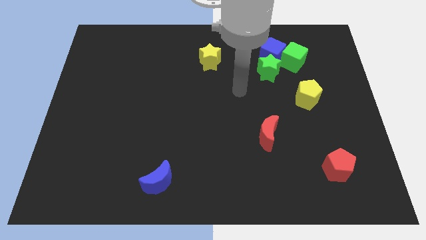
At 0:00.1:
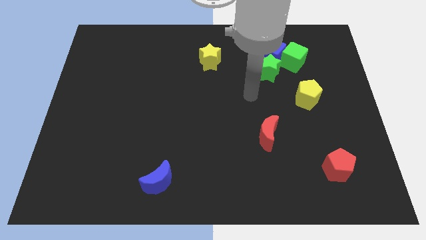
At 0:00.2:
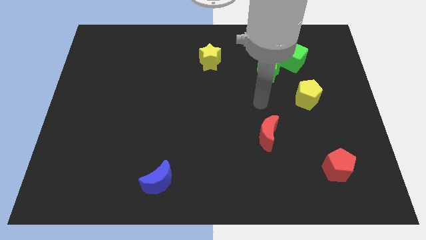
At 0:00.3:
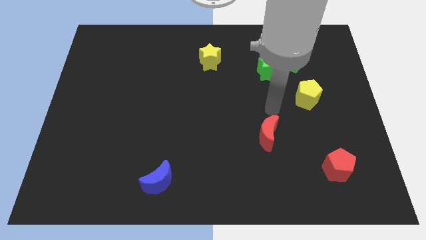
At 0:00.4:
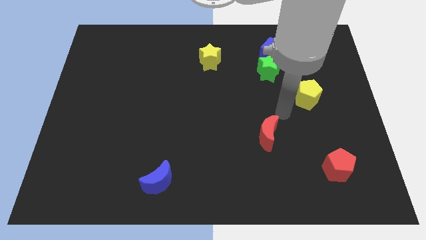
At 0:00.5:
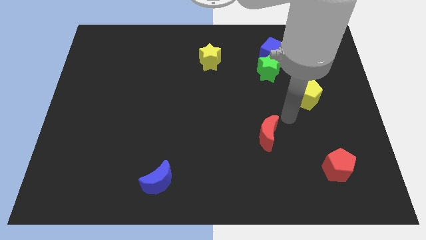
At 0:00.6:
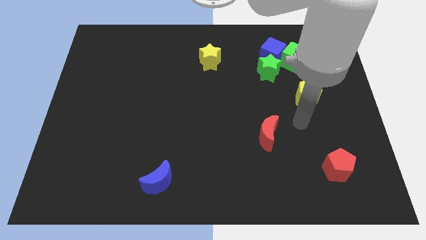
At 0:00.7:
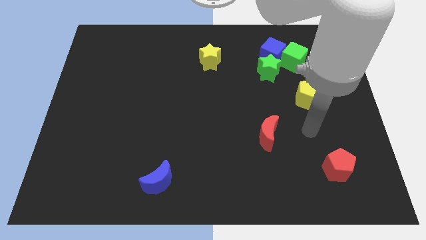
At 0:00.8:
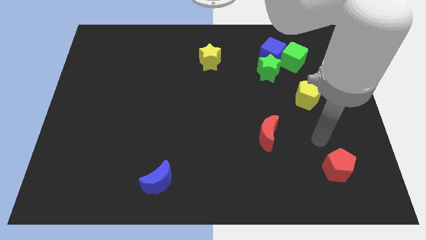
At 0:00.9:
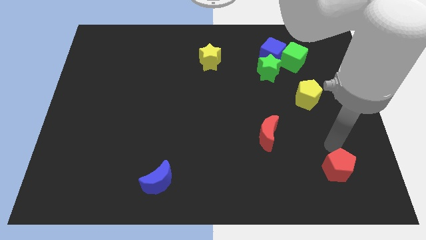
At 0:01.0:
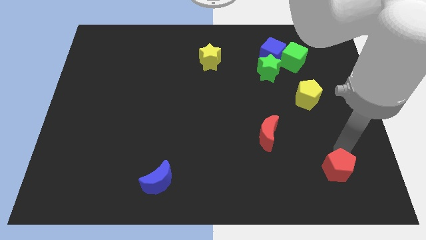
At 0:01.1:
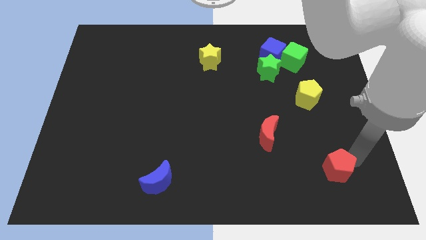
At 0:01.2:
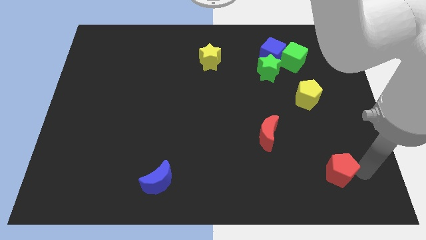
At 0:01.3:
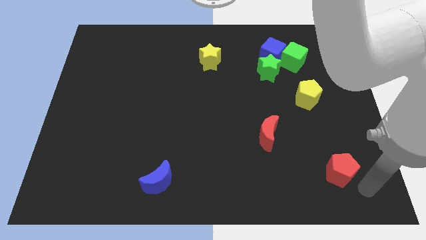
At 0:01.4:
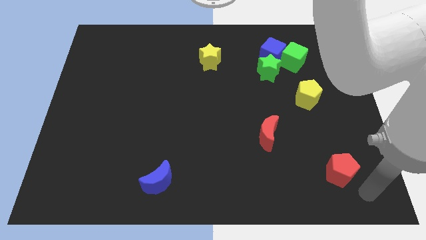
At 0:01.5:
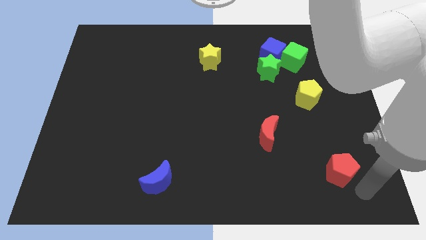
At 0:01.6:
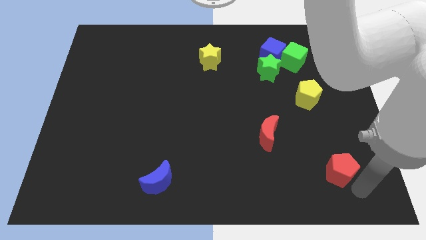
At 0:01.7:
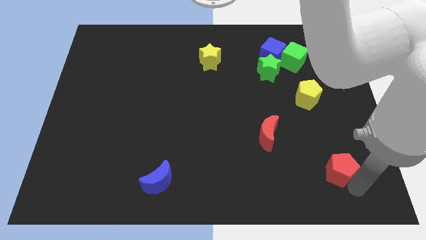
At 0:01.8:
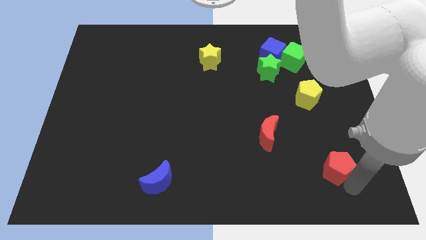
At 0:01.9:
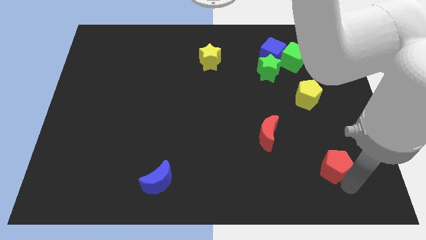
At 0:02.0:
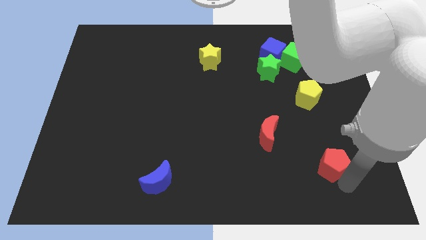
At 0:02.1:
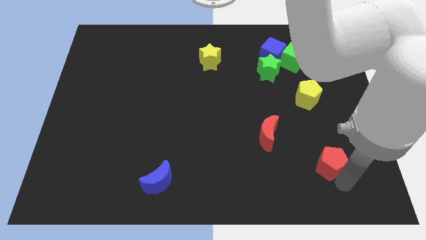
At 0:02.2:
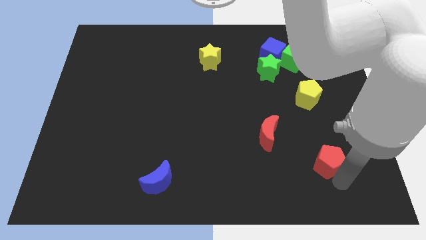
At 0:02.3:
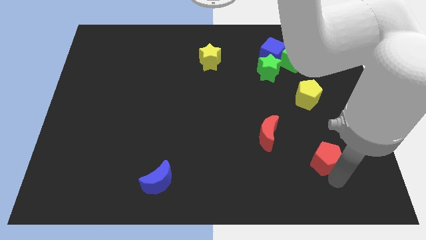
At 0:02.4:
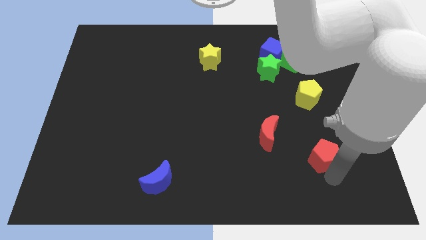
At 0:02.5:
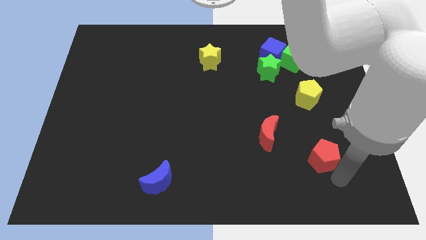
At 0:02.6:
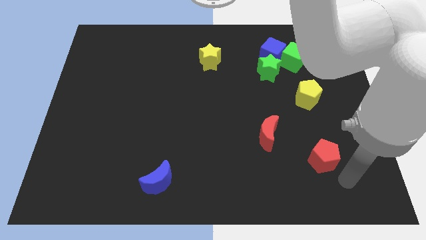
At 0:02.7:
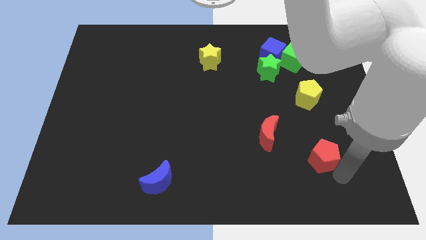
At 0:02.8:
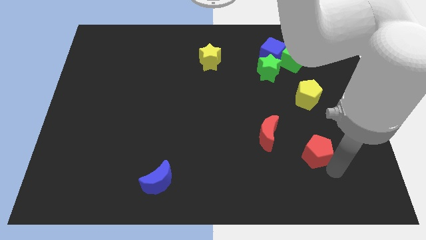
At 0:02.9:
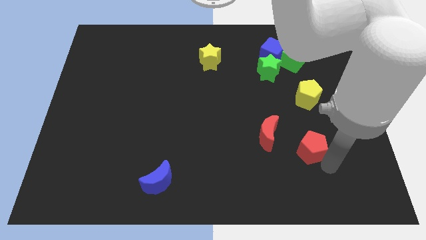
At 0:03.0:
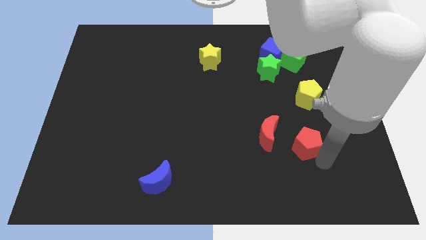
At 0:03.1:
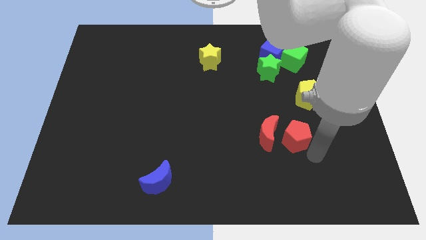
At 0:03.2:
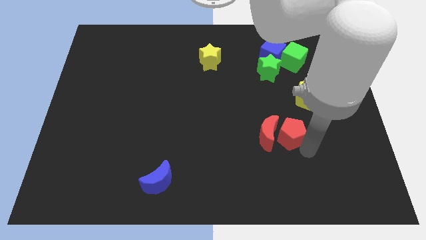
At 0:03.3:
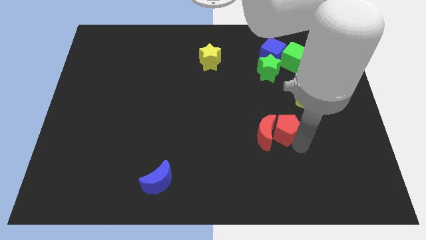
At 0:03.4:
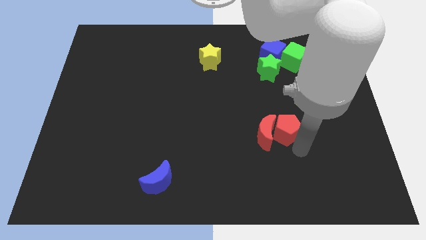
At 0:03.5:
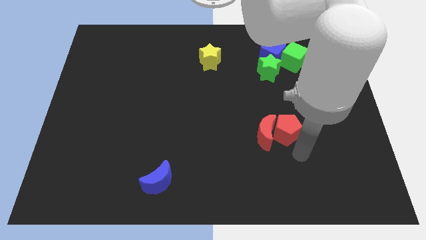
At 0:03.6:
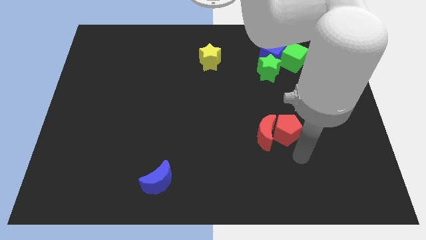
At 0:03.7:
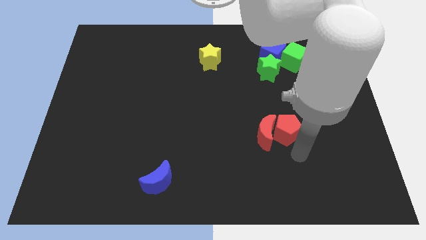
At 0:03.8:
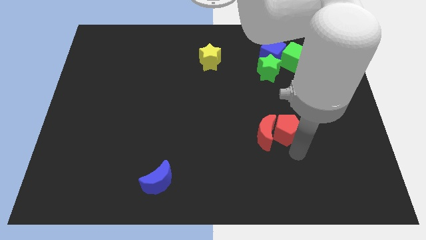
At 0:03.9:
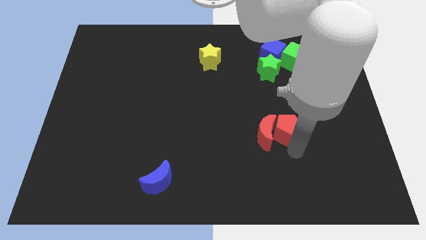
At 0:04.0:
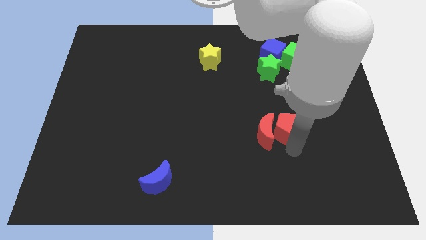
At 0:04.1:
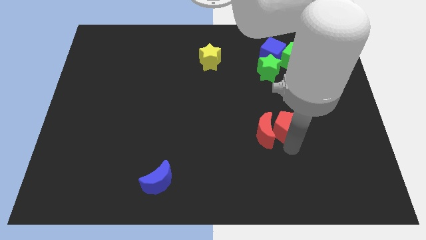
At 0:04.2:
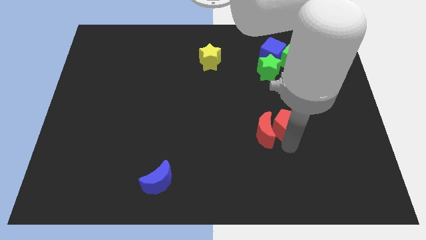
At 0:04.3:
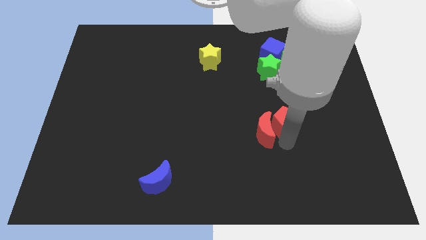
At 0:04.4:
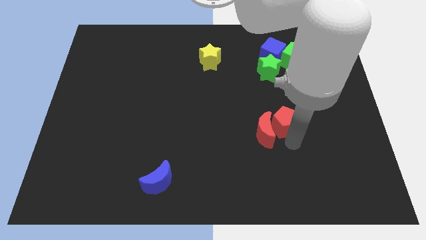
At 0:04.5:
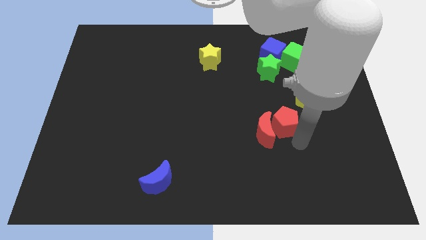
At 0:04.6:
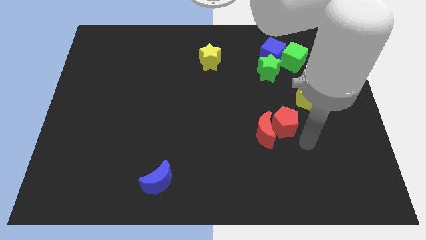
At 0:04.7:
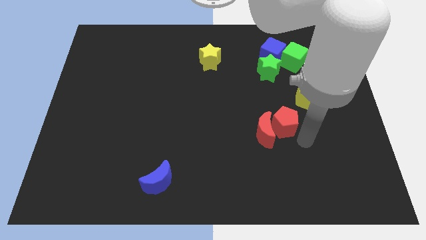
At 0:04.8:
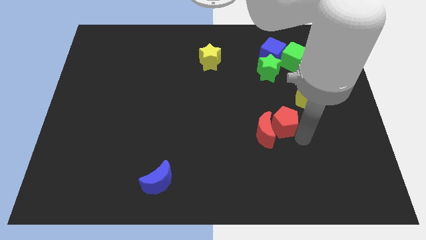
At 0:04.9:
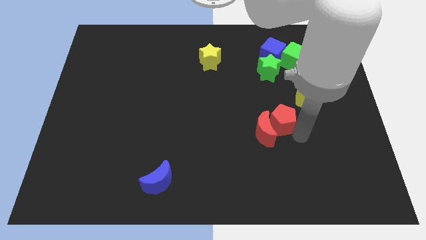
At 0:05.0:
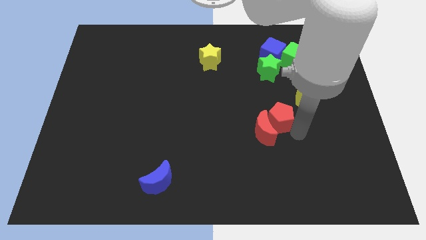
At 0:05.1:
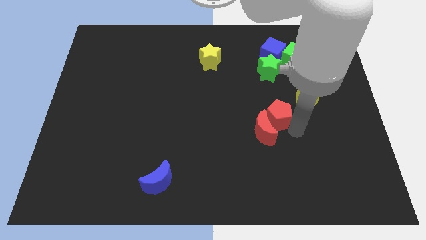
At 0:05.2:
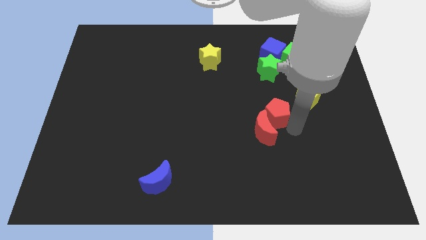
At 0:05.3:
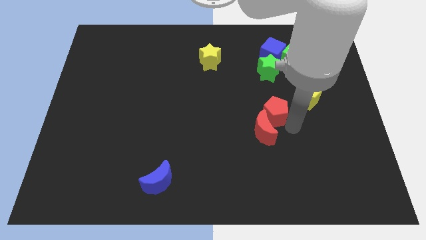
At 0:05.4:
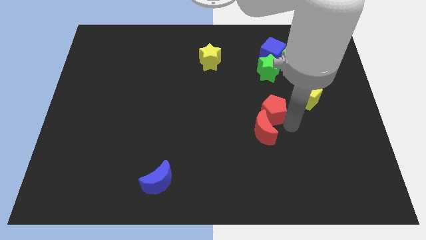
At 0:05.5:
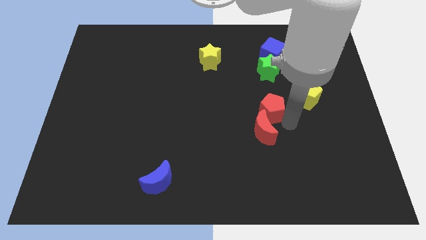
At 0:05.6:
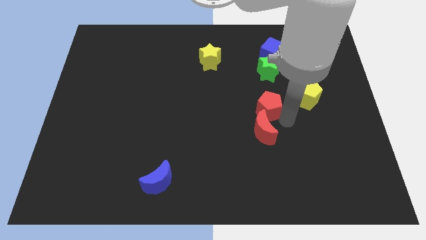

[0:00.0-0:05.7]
move the red pentagon upwards and to the left

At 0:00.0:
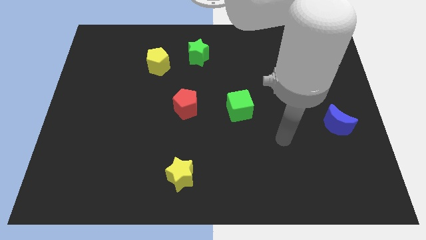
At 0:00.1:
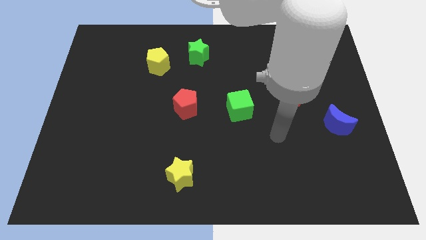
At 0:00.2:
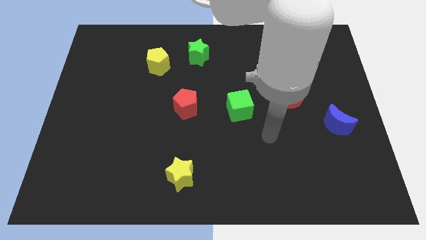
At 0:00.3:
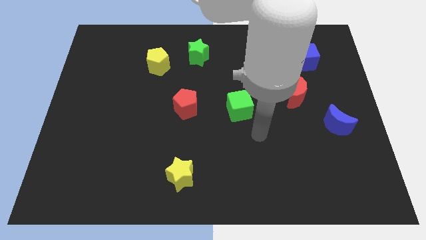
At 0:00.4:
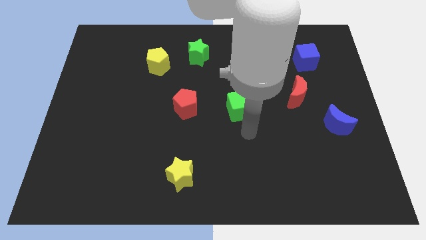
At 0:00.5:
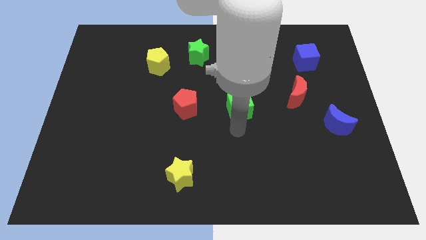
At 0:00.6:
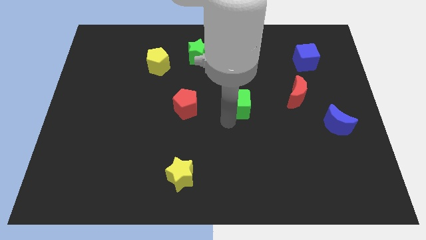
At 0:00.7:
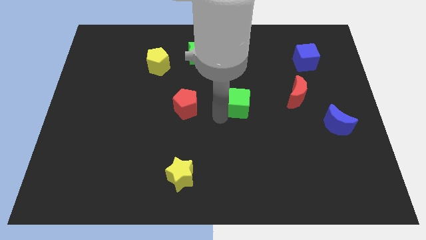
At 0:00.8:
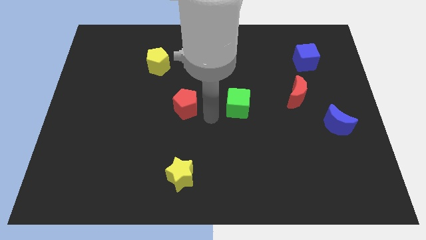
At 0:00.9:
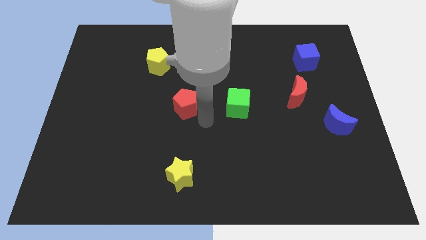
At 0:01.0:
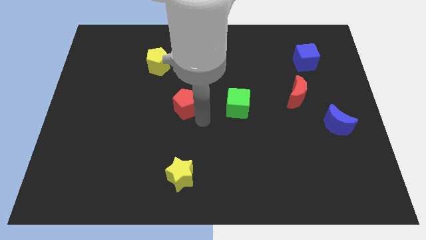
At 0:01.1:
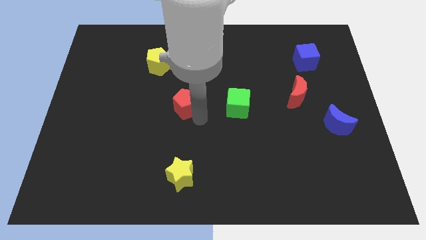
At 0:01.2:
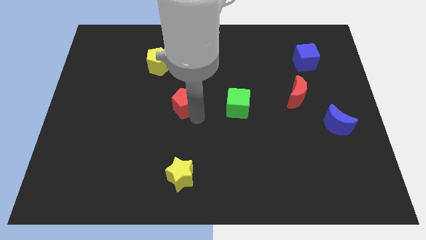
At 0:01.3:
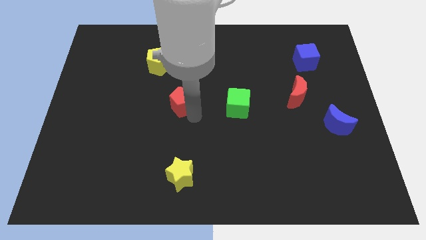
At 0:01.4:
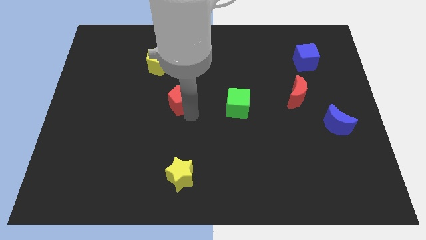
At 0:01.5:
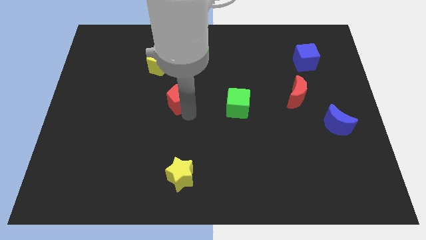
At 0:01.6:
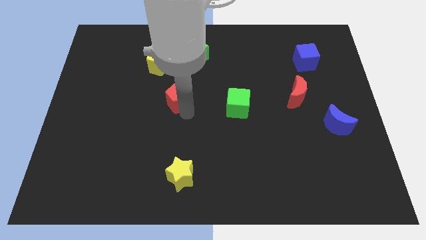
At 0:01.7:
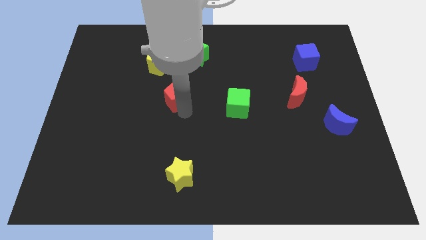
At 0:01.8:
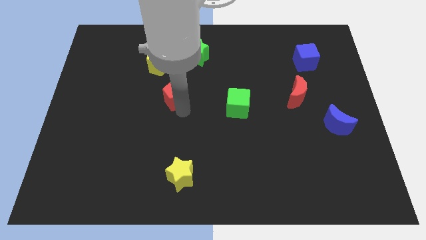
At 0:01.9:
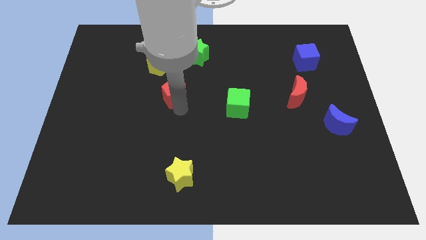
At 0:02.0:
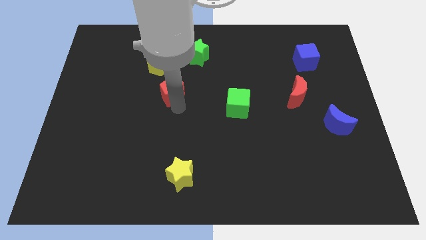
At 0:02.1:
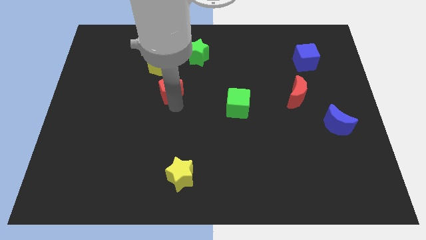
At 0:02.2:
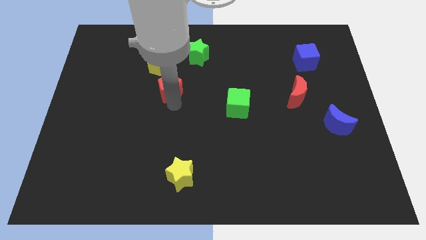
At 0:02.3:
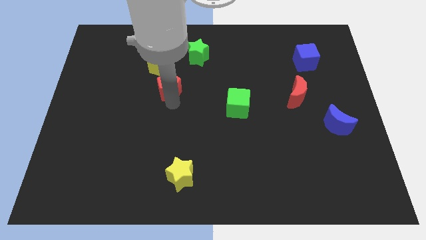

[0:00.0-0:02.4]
slide the red pentagon somewhat up and to the left diagonally
